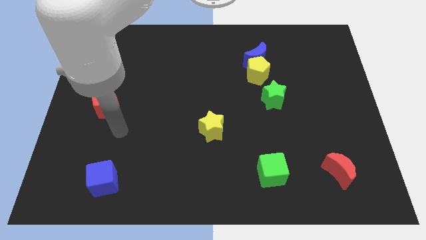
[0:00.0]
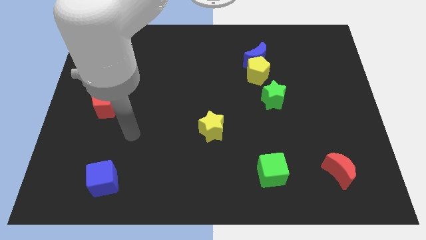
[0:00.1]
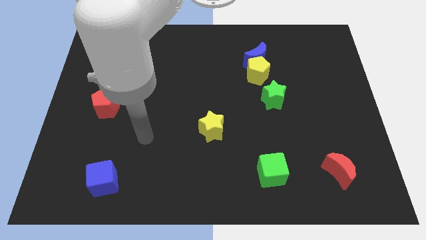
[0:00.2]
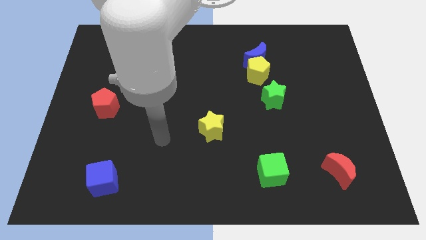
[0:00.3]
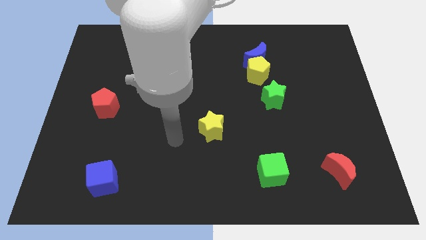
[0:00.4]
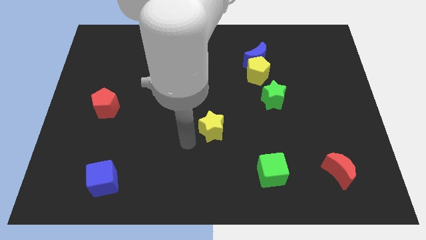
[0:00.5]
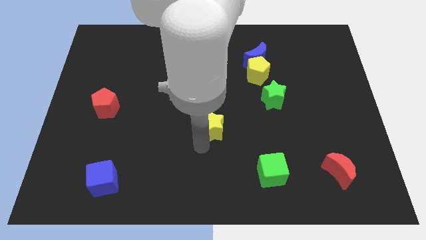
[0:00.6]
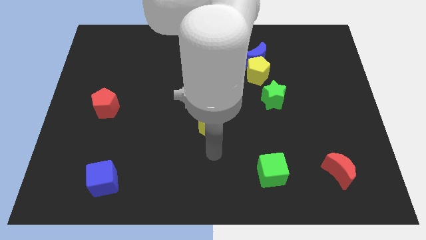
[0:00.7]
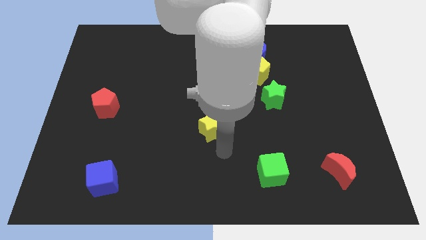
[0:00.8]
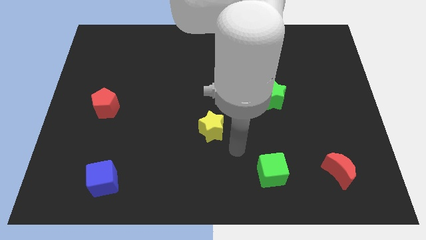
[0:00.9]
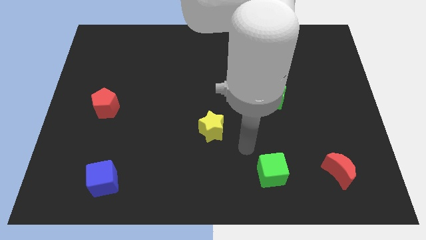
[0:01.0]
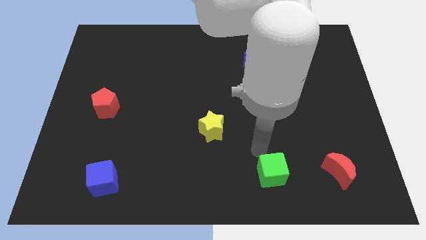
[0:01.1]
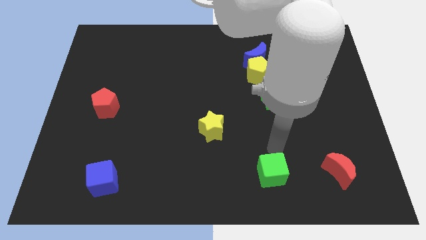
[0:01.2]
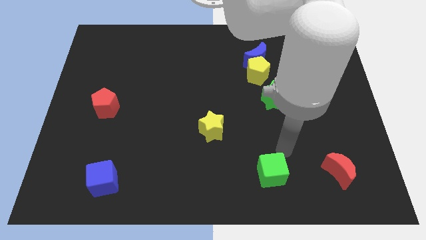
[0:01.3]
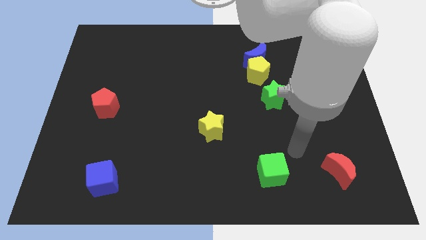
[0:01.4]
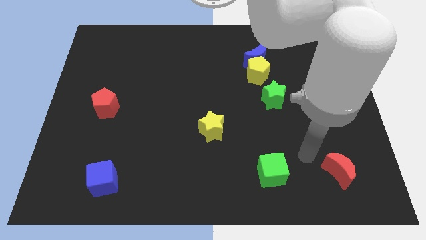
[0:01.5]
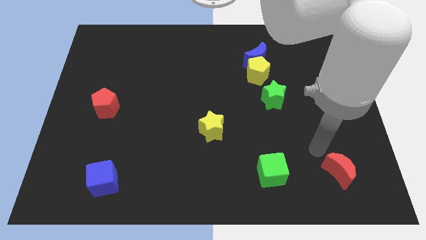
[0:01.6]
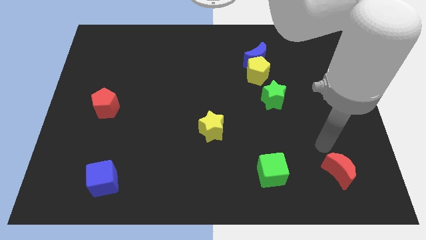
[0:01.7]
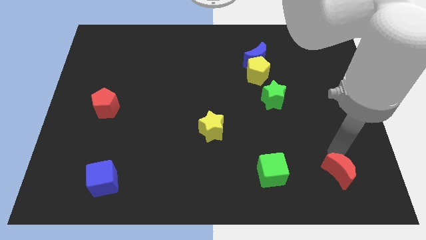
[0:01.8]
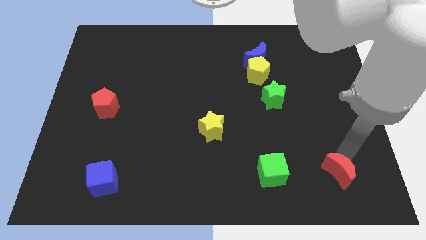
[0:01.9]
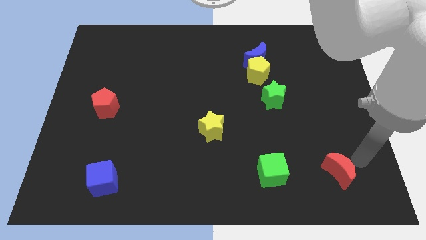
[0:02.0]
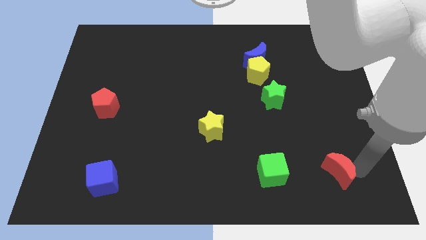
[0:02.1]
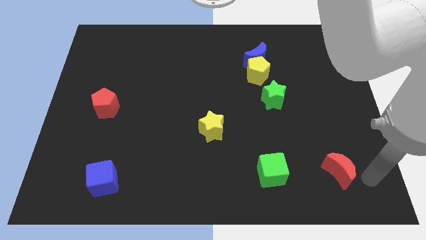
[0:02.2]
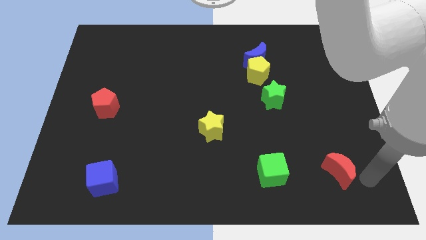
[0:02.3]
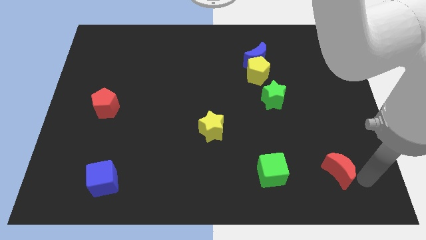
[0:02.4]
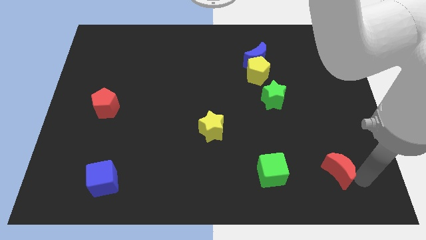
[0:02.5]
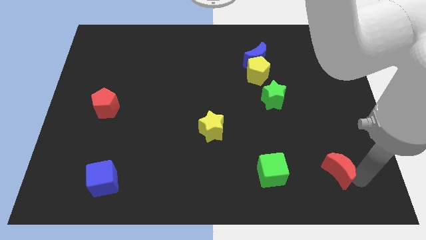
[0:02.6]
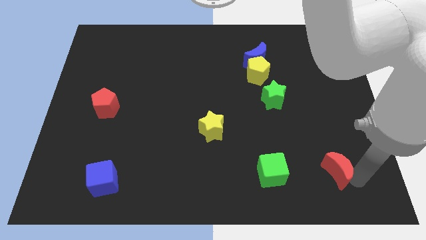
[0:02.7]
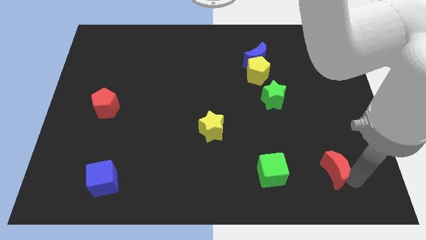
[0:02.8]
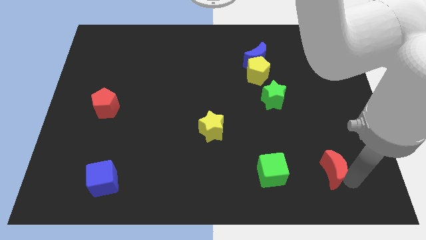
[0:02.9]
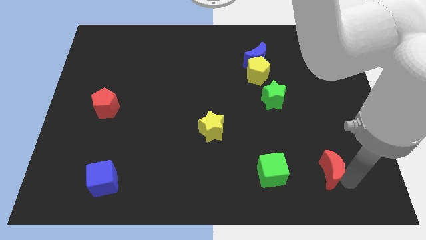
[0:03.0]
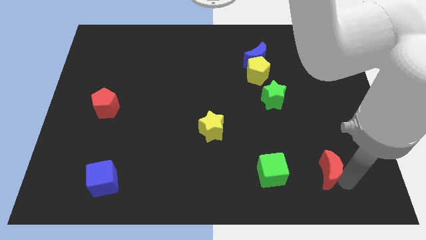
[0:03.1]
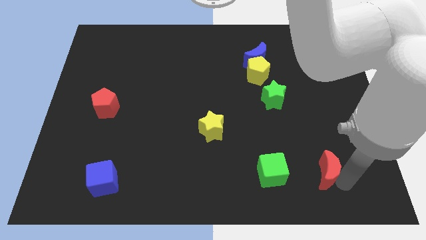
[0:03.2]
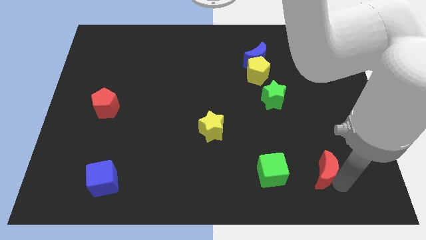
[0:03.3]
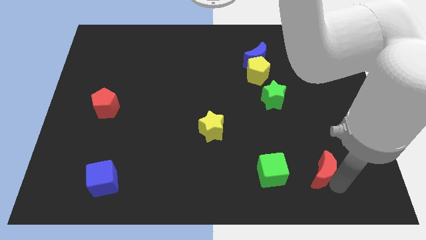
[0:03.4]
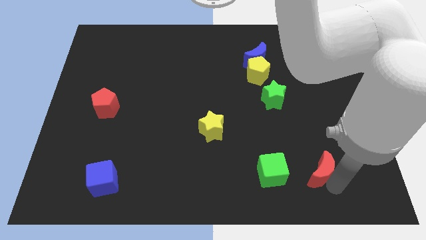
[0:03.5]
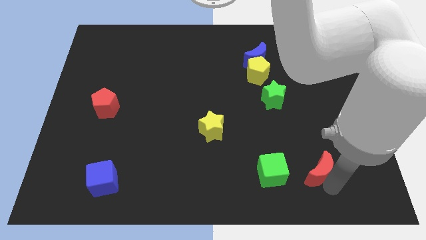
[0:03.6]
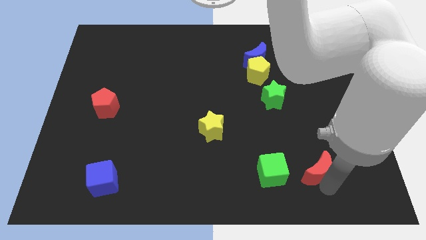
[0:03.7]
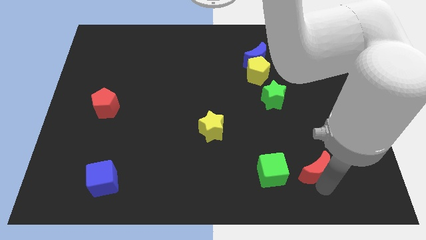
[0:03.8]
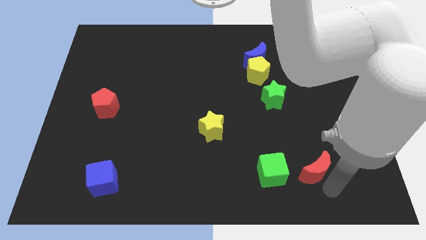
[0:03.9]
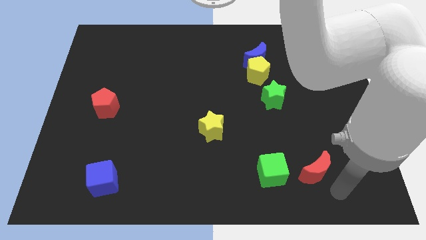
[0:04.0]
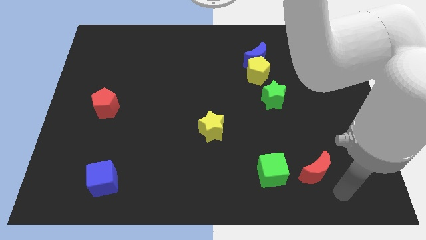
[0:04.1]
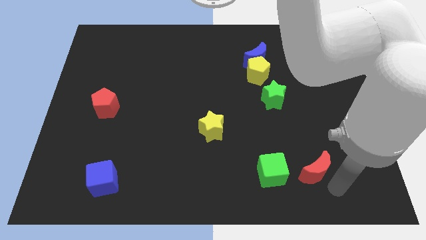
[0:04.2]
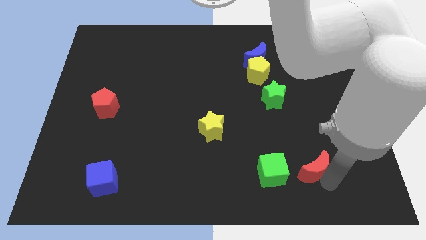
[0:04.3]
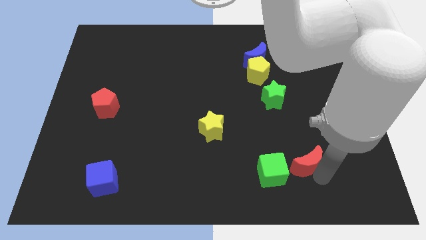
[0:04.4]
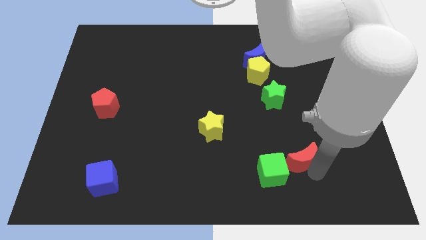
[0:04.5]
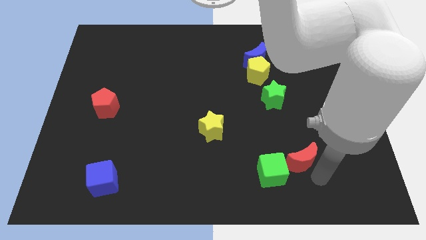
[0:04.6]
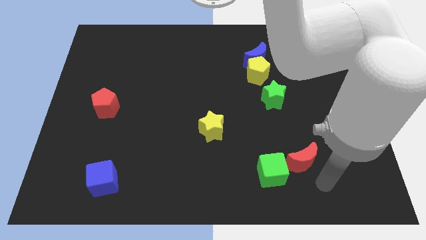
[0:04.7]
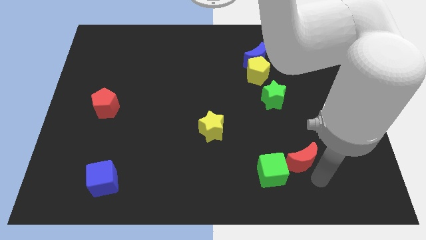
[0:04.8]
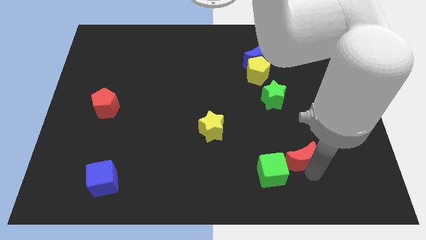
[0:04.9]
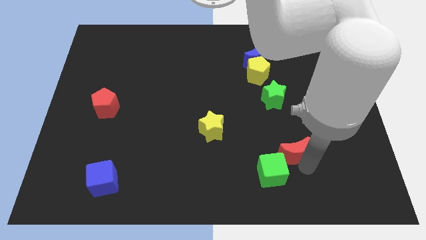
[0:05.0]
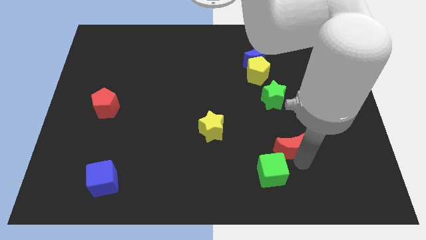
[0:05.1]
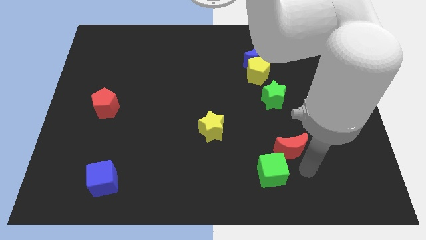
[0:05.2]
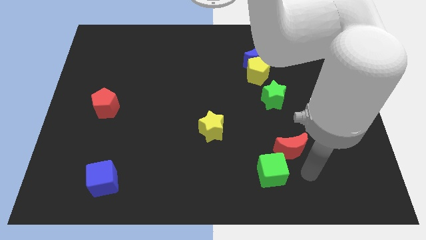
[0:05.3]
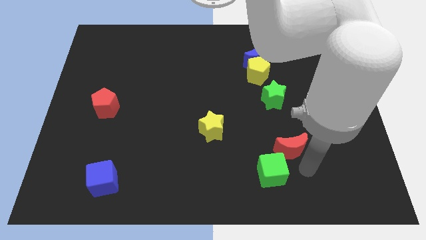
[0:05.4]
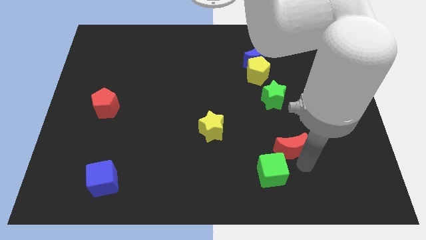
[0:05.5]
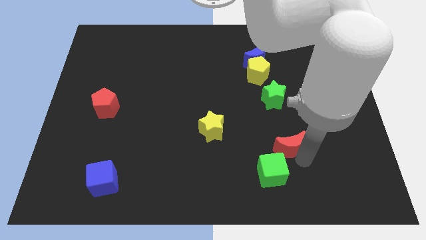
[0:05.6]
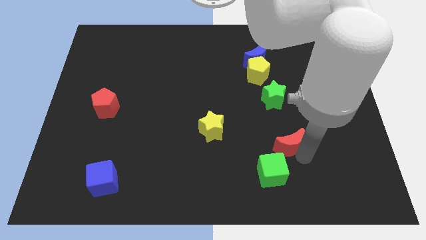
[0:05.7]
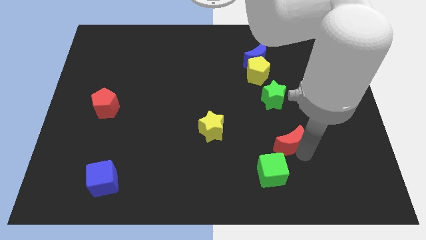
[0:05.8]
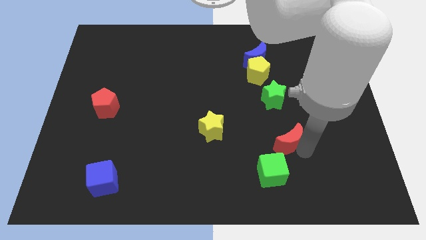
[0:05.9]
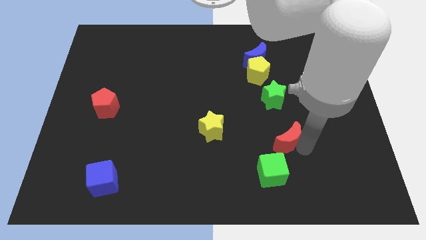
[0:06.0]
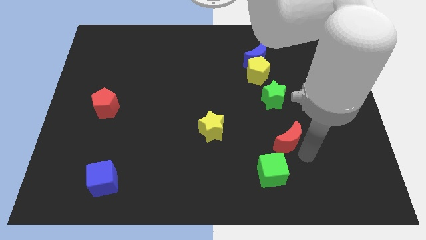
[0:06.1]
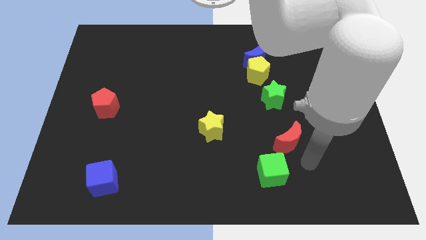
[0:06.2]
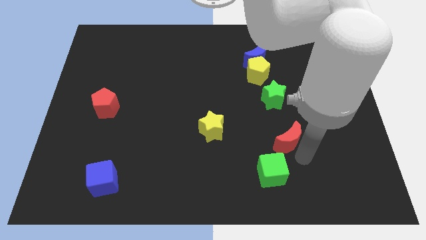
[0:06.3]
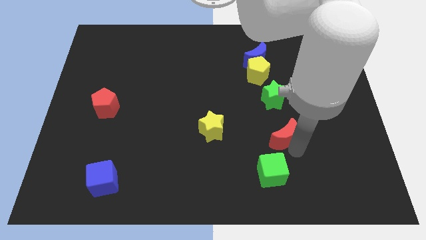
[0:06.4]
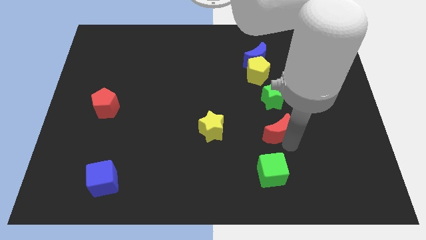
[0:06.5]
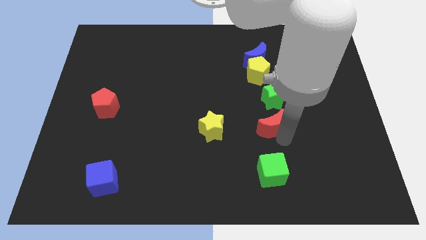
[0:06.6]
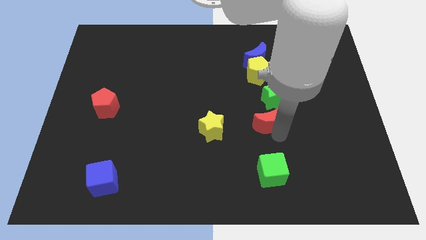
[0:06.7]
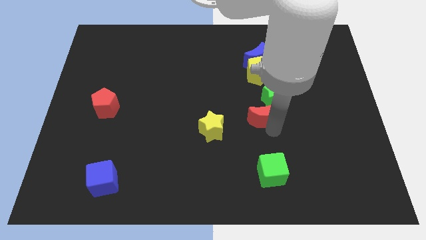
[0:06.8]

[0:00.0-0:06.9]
slide the red moon upwards and left

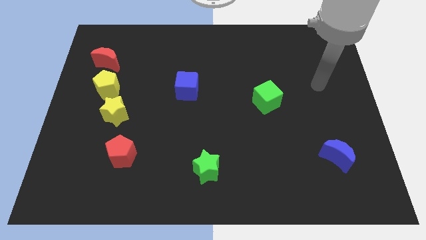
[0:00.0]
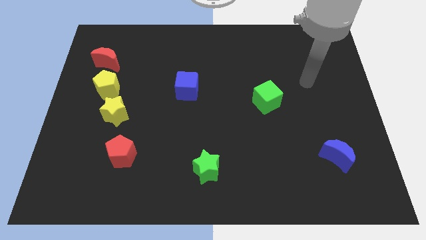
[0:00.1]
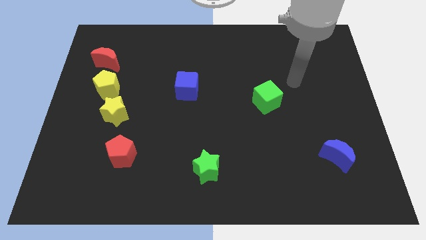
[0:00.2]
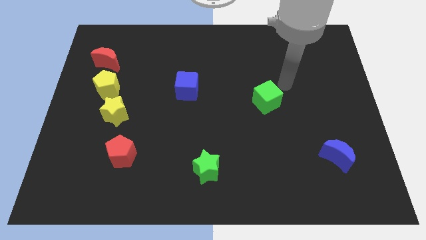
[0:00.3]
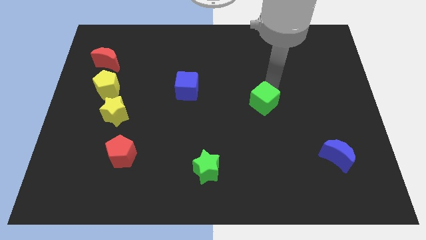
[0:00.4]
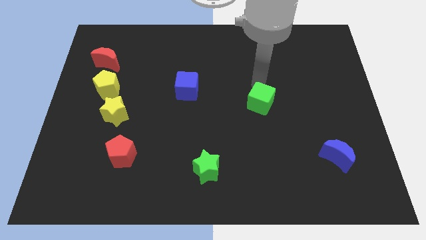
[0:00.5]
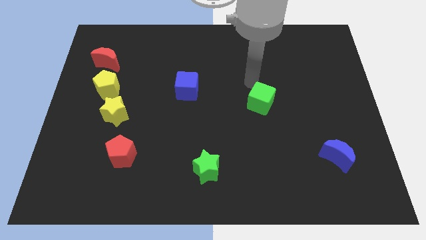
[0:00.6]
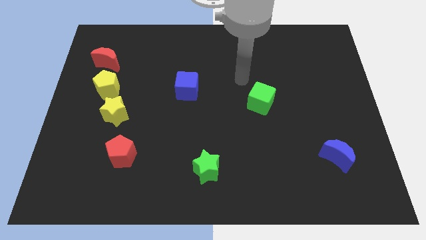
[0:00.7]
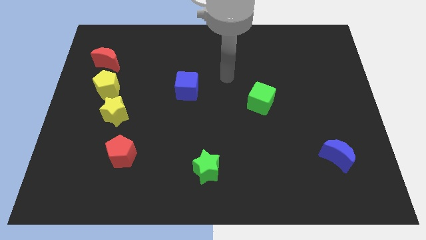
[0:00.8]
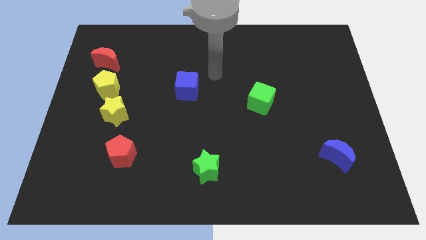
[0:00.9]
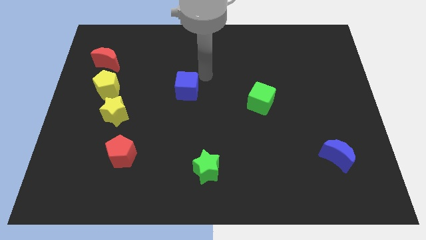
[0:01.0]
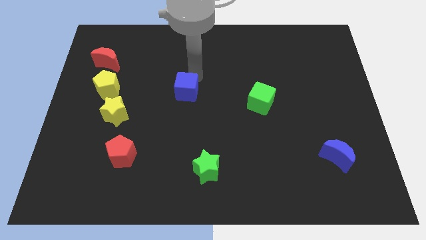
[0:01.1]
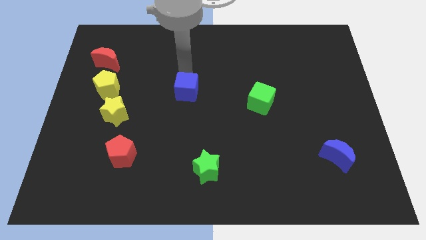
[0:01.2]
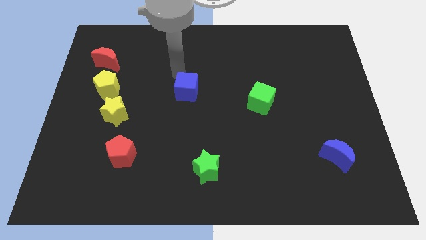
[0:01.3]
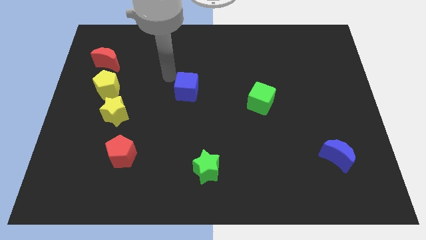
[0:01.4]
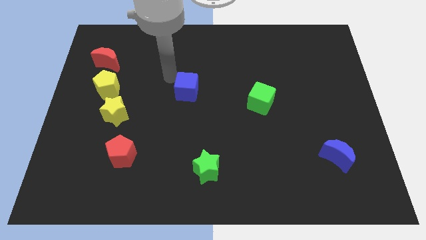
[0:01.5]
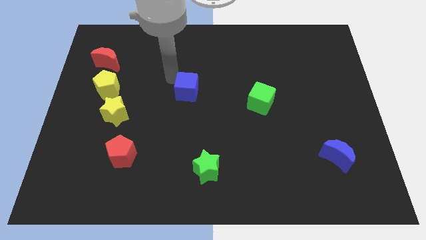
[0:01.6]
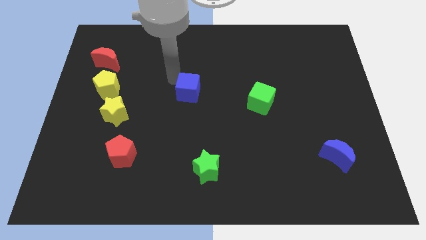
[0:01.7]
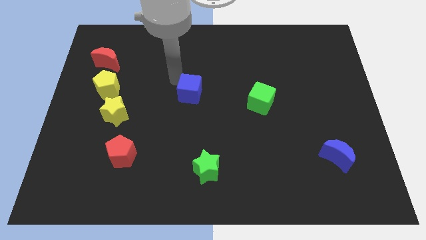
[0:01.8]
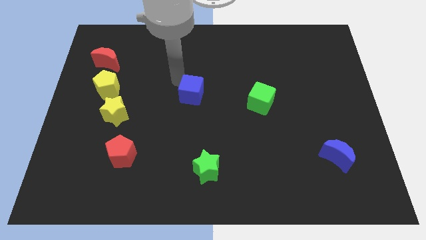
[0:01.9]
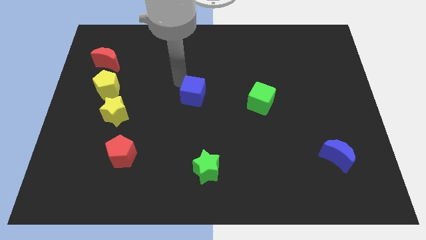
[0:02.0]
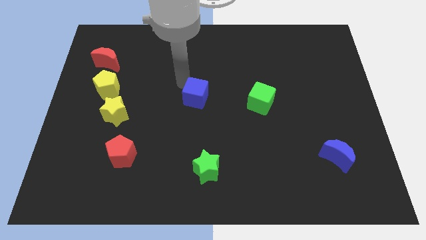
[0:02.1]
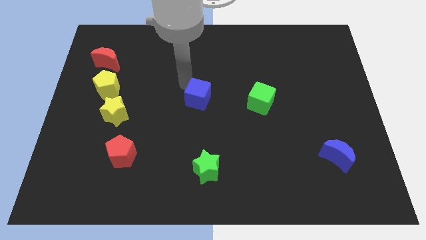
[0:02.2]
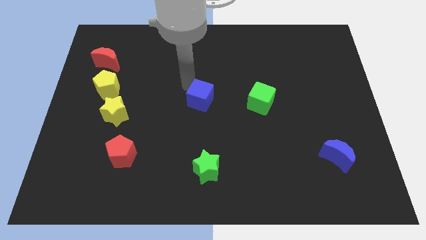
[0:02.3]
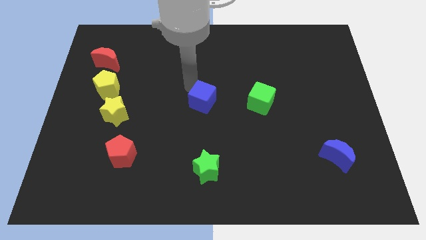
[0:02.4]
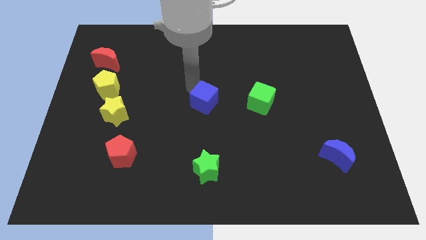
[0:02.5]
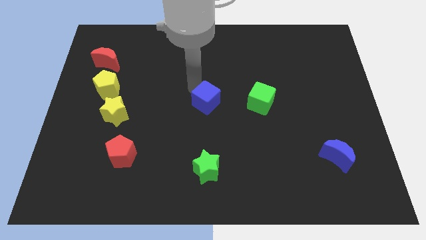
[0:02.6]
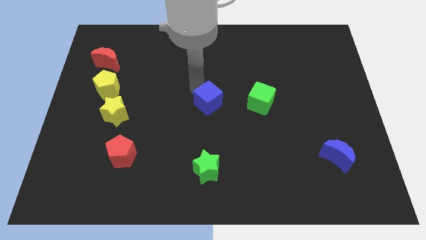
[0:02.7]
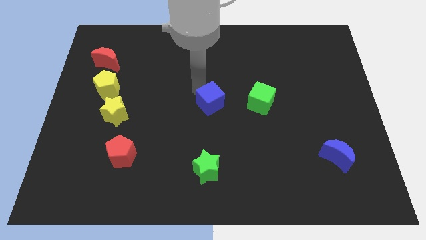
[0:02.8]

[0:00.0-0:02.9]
slightly slide the blue cube downwards and to the right
